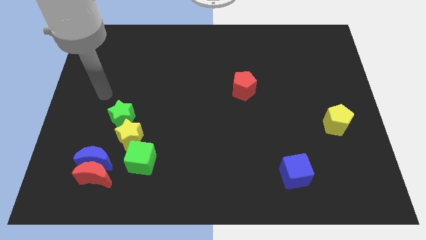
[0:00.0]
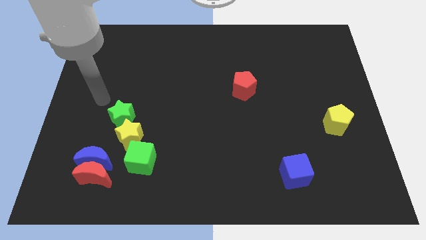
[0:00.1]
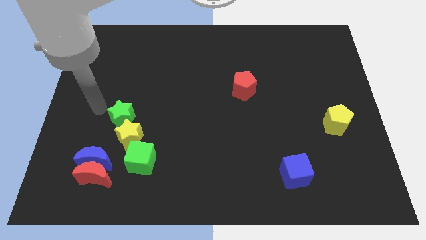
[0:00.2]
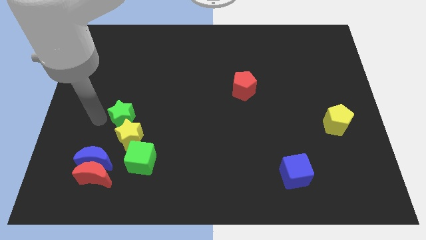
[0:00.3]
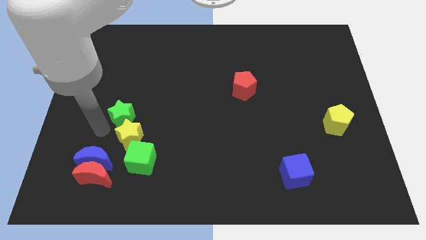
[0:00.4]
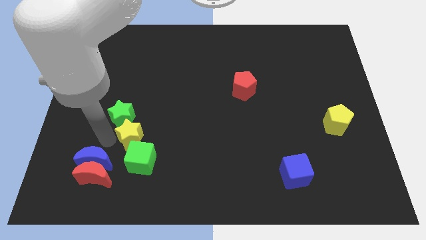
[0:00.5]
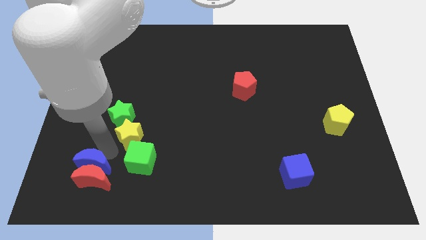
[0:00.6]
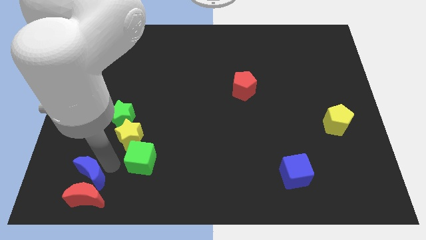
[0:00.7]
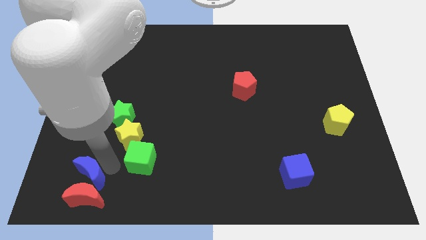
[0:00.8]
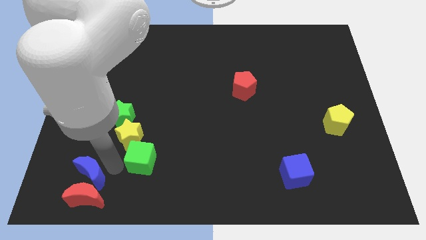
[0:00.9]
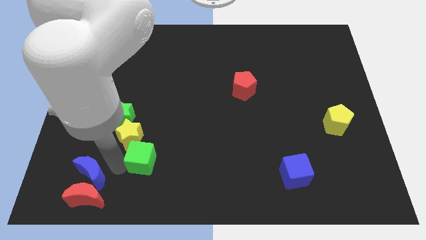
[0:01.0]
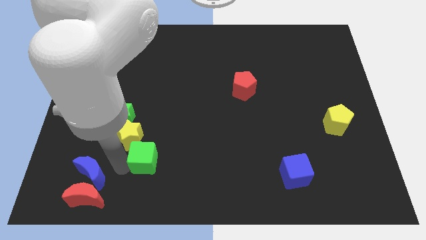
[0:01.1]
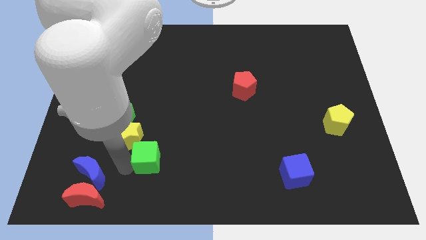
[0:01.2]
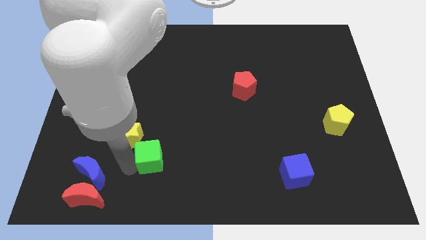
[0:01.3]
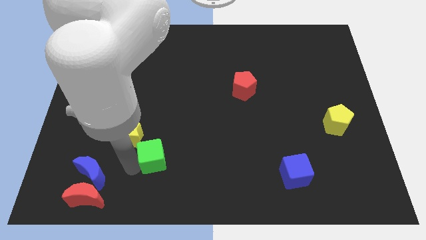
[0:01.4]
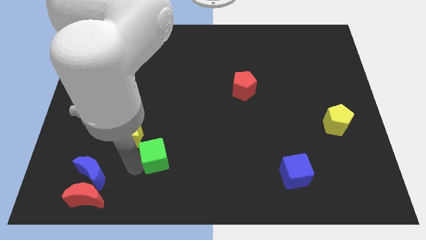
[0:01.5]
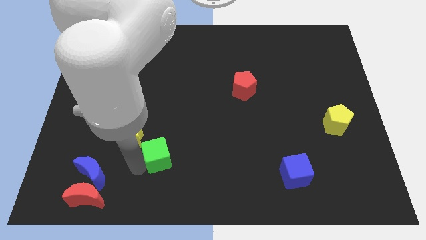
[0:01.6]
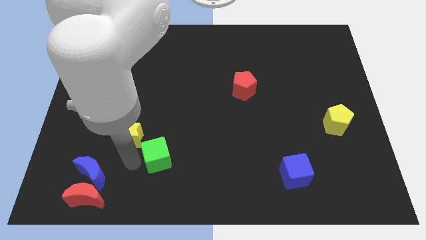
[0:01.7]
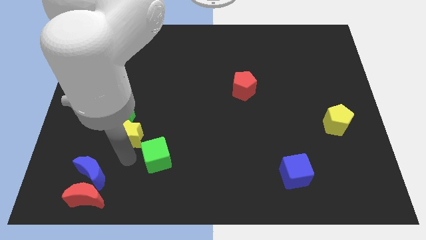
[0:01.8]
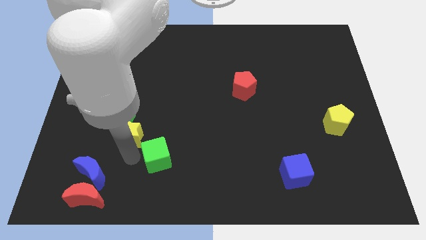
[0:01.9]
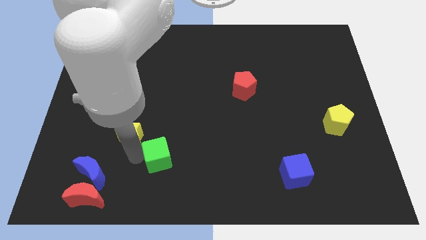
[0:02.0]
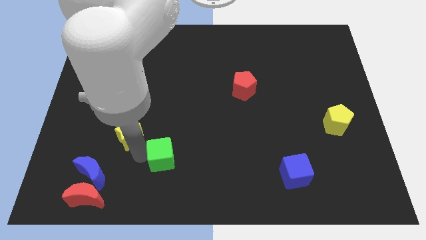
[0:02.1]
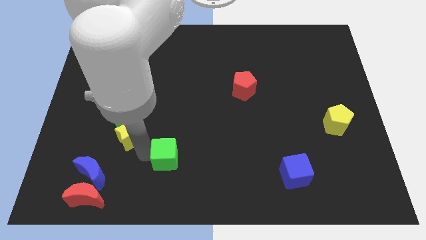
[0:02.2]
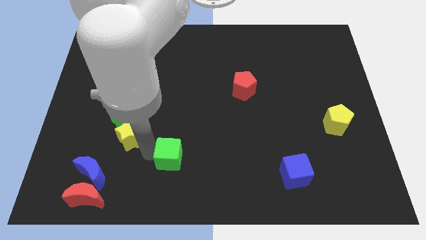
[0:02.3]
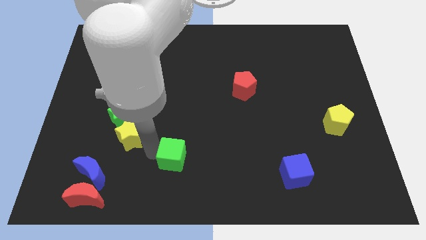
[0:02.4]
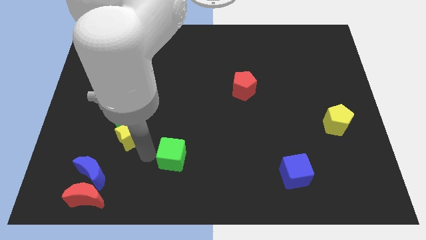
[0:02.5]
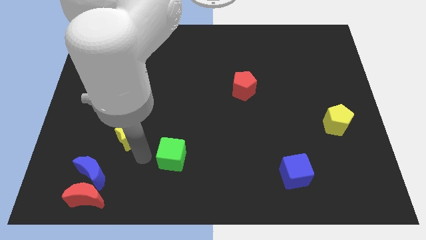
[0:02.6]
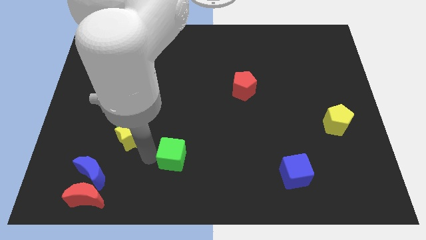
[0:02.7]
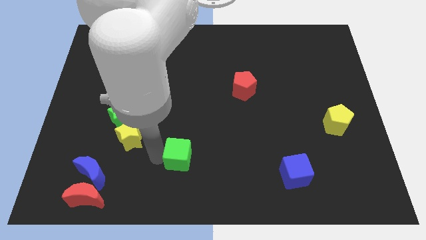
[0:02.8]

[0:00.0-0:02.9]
slightly slide the green cube to the right

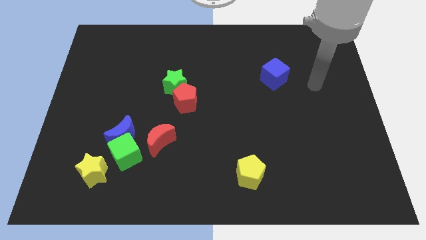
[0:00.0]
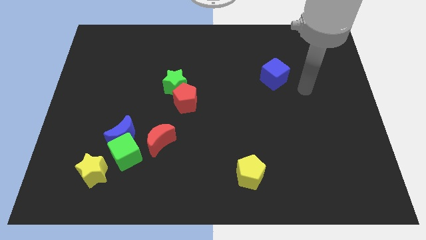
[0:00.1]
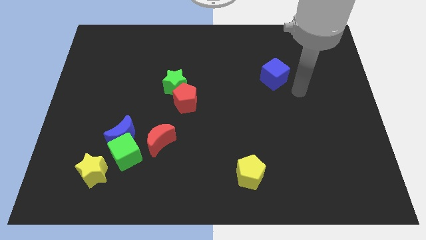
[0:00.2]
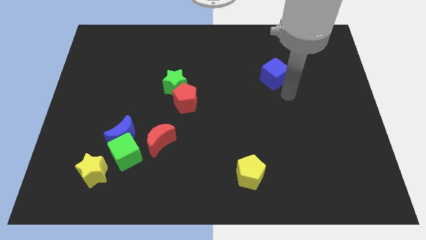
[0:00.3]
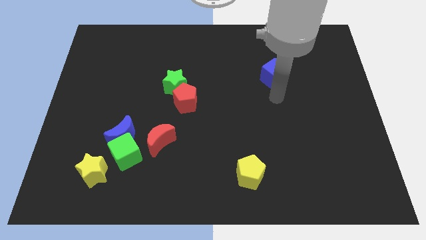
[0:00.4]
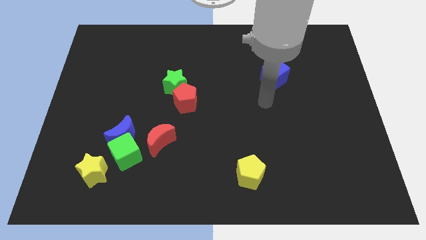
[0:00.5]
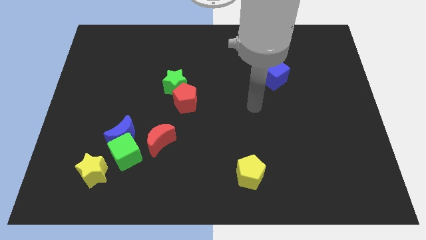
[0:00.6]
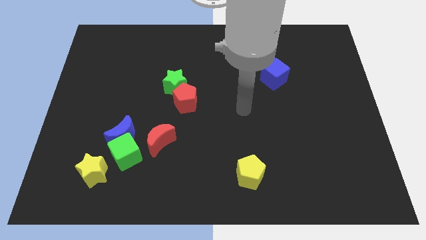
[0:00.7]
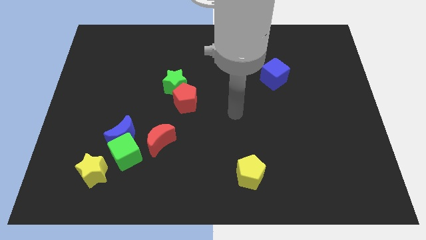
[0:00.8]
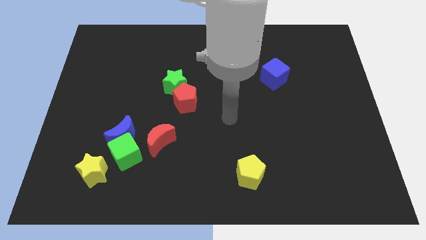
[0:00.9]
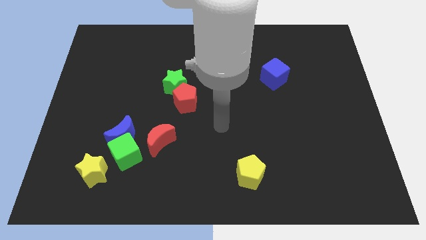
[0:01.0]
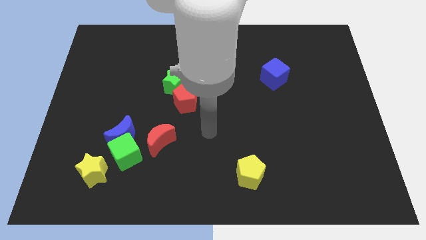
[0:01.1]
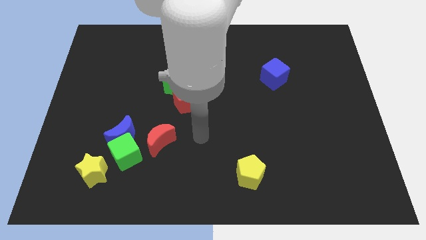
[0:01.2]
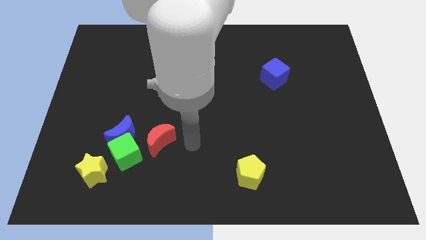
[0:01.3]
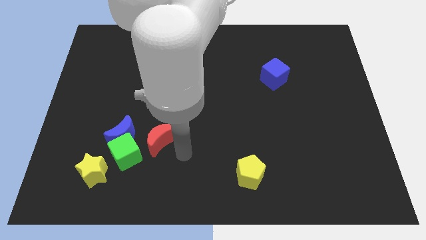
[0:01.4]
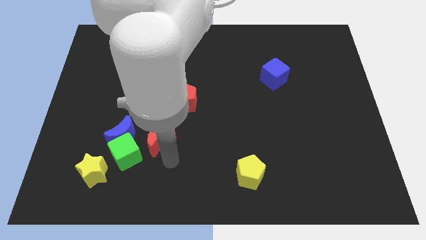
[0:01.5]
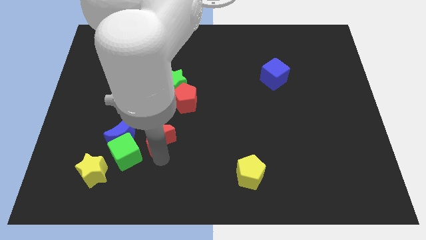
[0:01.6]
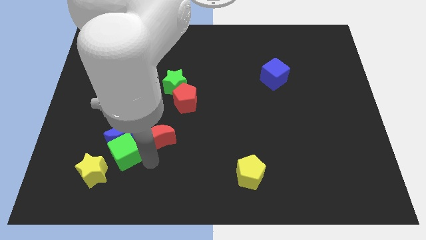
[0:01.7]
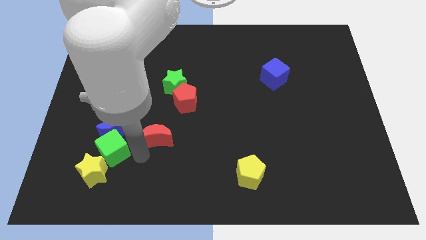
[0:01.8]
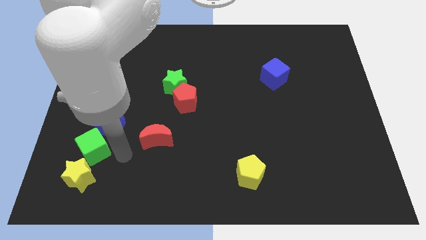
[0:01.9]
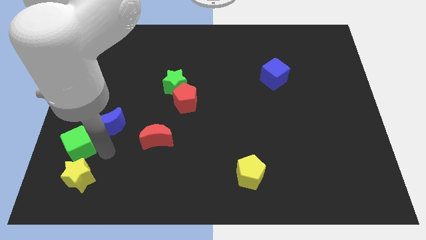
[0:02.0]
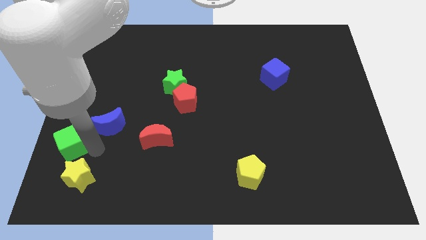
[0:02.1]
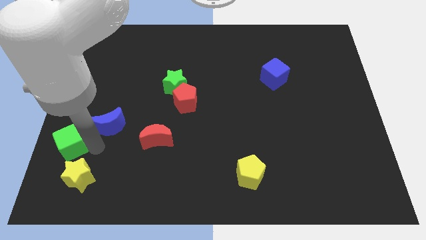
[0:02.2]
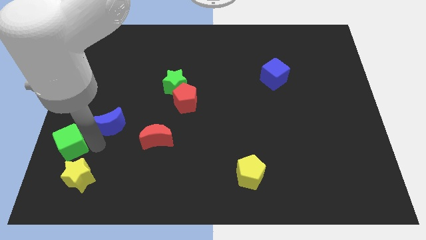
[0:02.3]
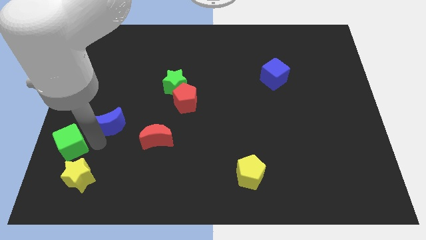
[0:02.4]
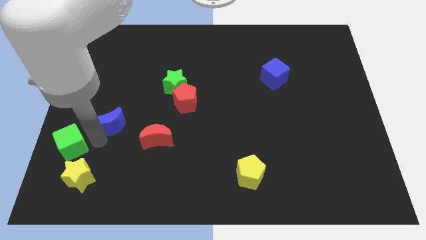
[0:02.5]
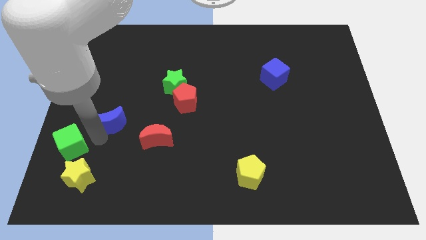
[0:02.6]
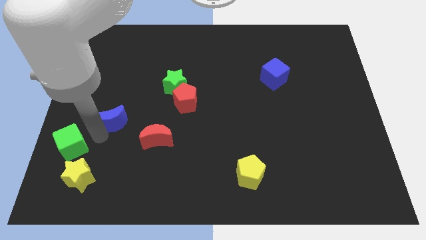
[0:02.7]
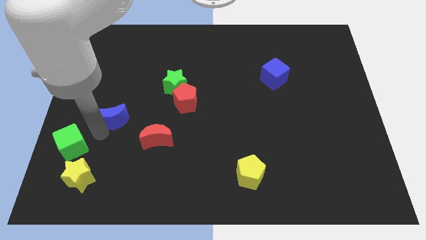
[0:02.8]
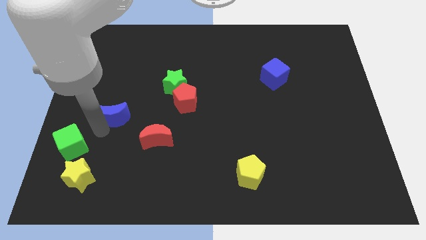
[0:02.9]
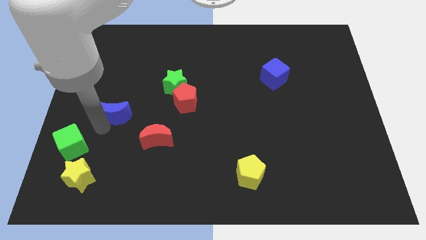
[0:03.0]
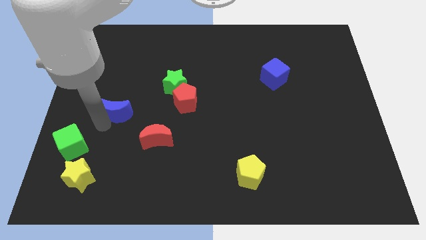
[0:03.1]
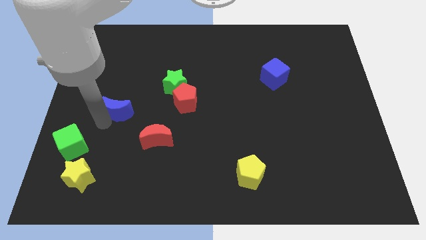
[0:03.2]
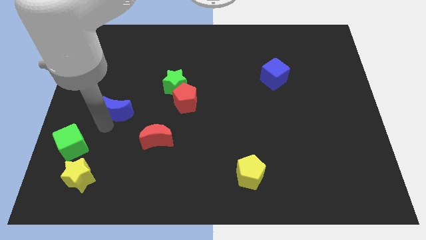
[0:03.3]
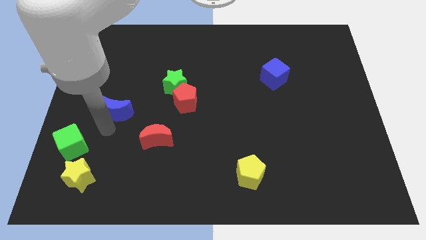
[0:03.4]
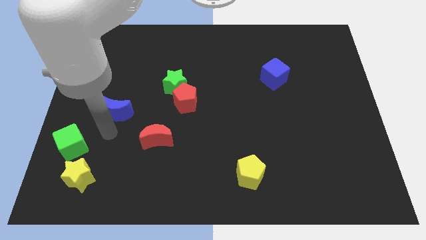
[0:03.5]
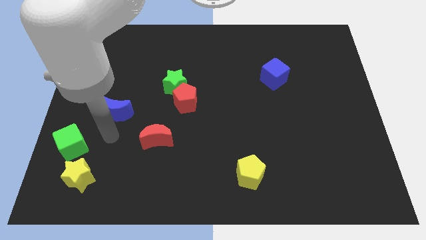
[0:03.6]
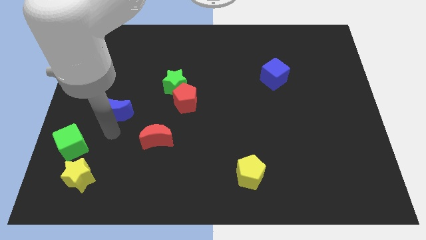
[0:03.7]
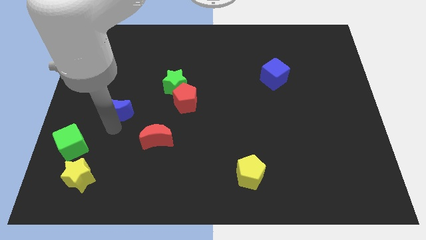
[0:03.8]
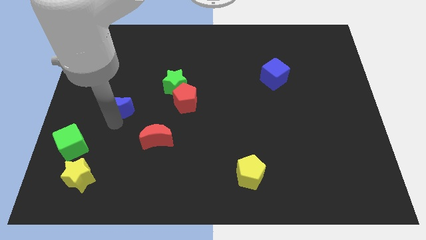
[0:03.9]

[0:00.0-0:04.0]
push the blue moon a bit upwards

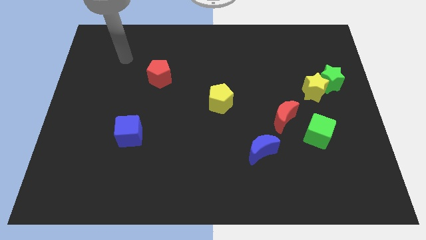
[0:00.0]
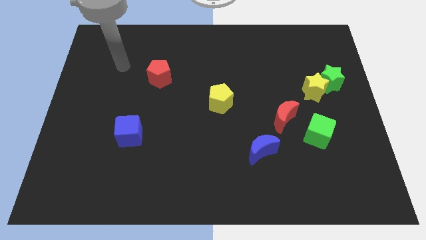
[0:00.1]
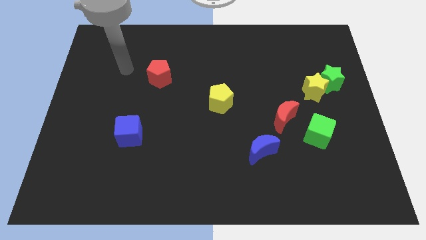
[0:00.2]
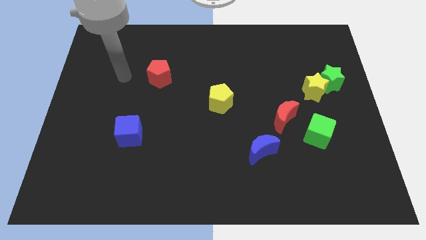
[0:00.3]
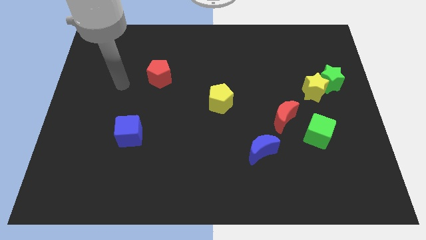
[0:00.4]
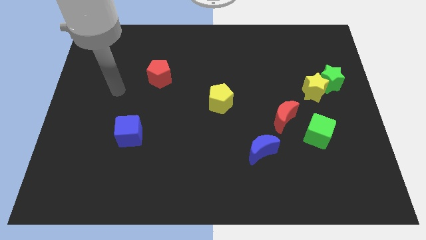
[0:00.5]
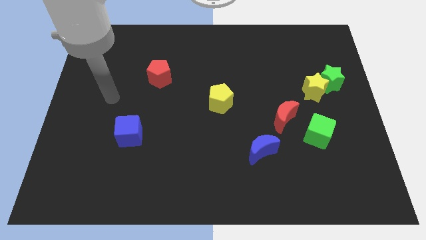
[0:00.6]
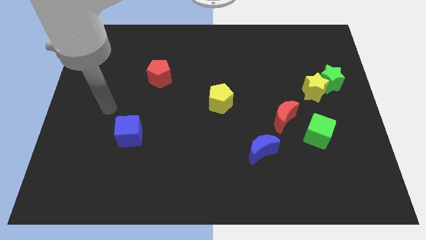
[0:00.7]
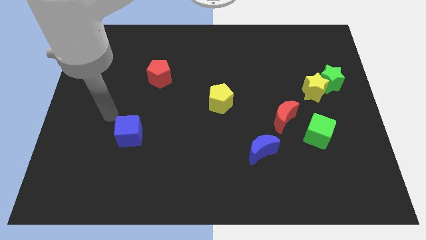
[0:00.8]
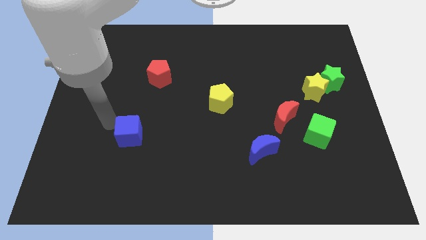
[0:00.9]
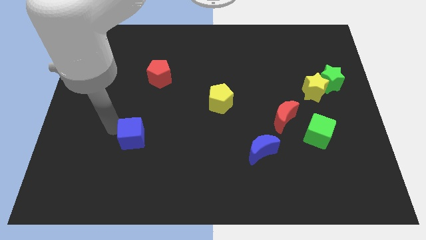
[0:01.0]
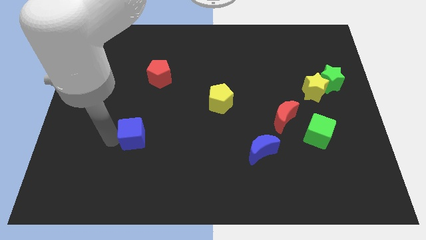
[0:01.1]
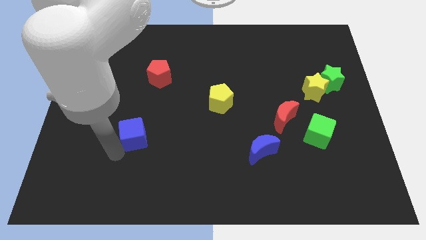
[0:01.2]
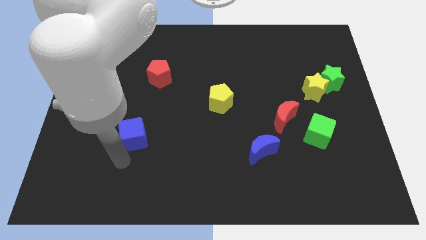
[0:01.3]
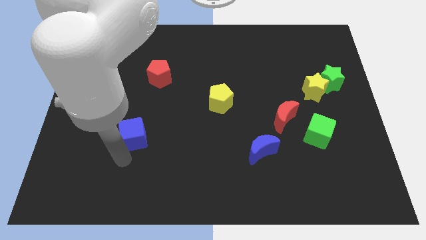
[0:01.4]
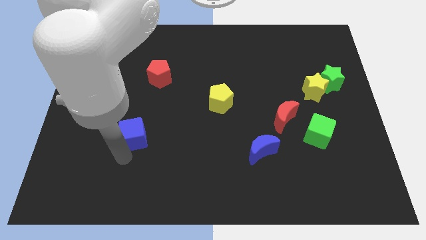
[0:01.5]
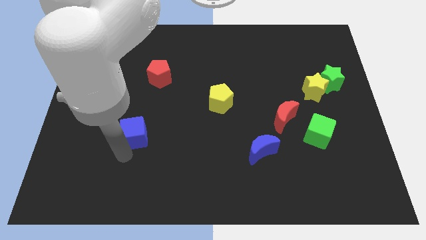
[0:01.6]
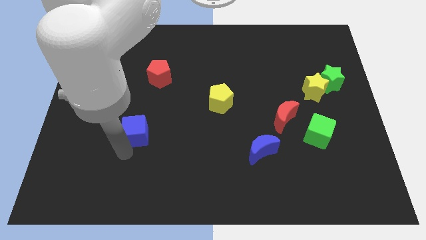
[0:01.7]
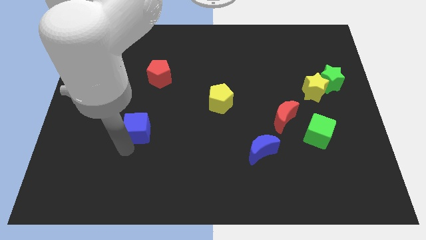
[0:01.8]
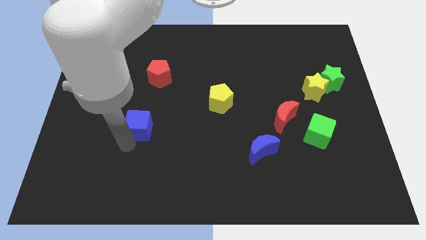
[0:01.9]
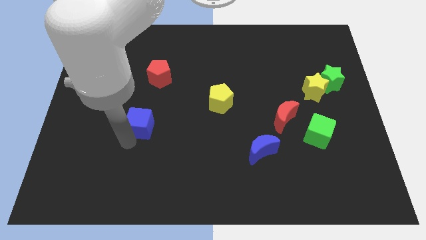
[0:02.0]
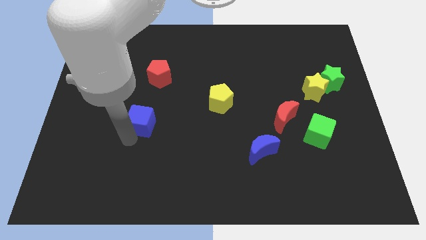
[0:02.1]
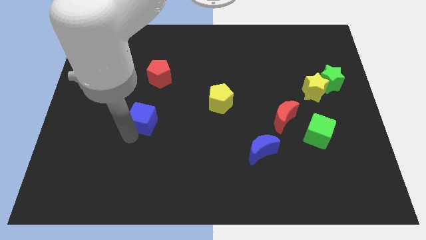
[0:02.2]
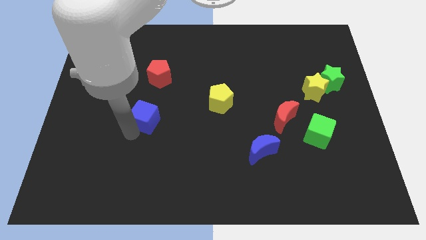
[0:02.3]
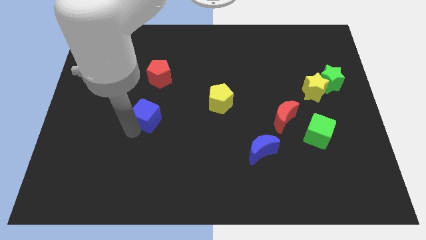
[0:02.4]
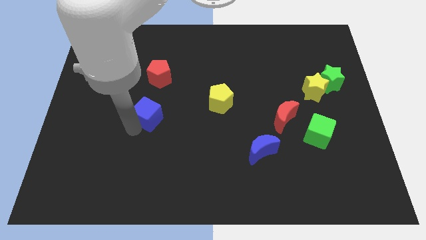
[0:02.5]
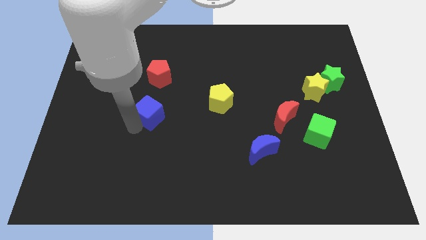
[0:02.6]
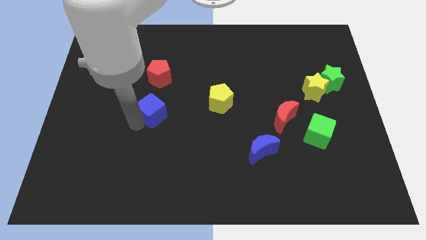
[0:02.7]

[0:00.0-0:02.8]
slightly slide the blue cube upwards and to the right diagonally
